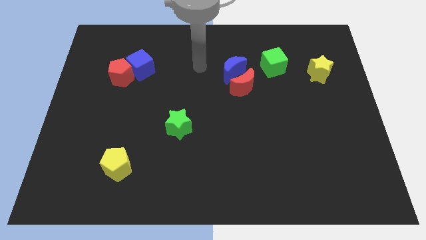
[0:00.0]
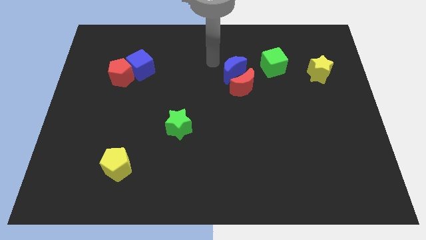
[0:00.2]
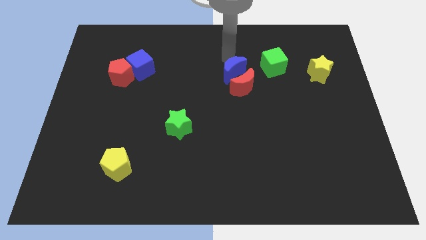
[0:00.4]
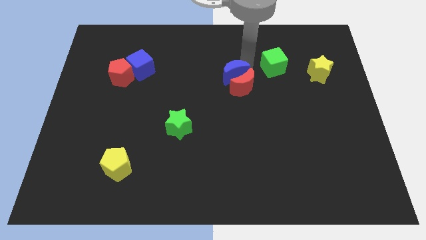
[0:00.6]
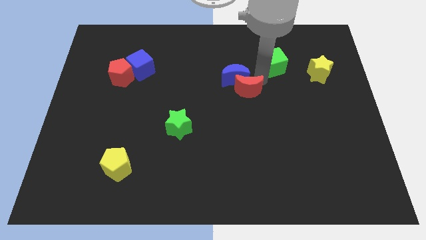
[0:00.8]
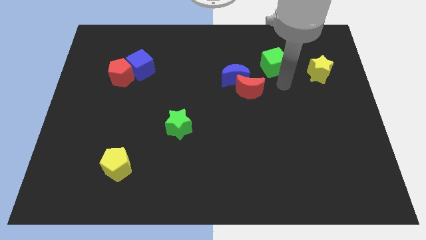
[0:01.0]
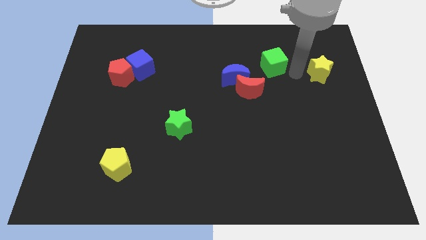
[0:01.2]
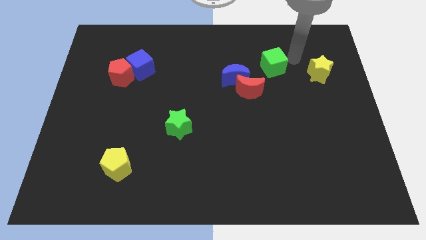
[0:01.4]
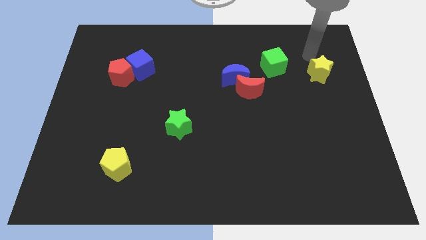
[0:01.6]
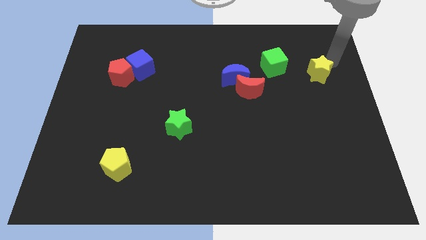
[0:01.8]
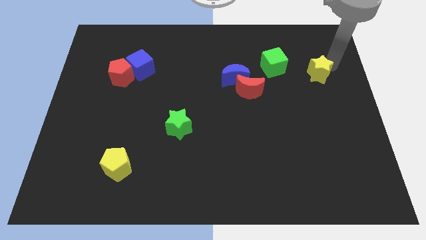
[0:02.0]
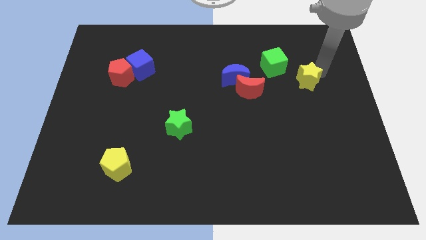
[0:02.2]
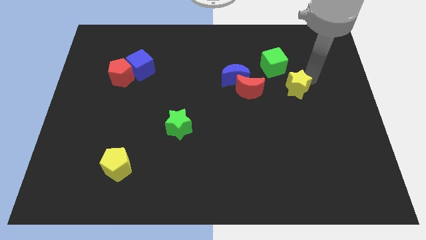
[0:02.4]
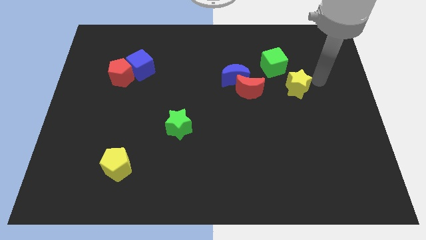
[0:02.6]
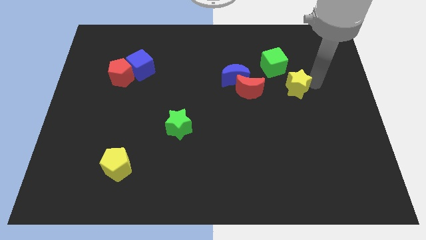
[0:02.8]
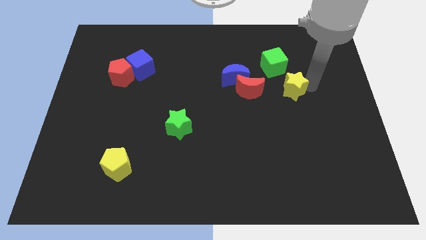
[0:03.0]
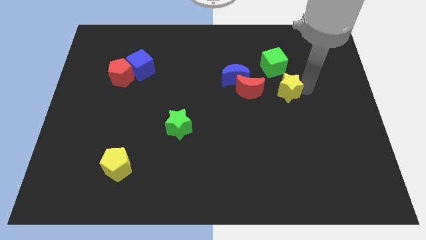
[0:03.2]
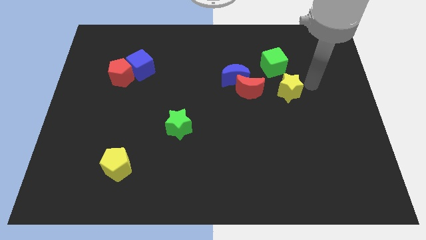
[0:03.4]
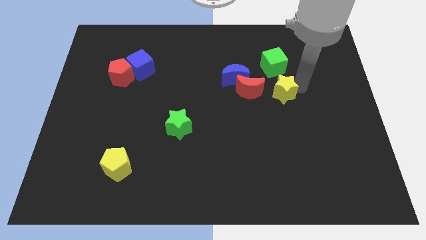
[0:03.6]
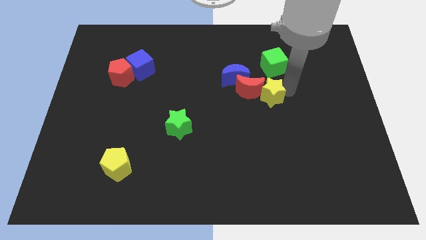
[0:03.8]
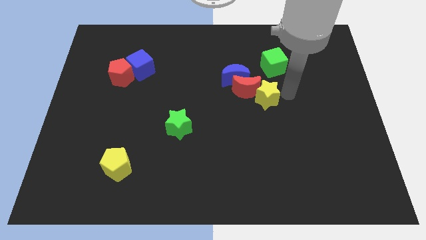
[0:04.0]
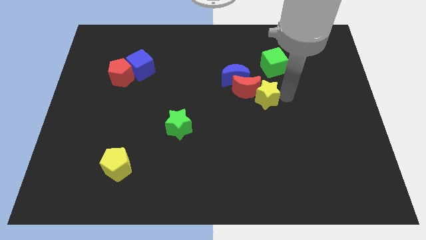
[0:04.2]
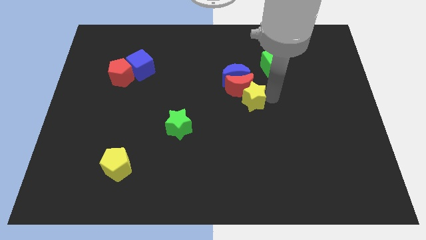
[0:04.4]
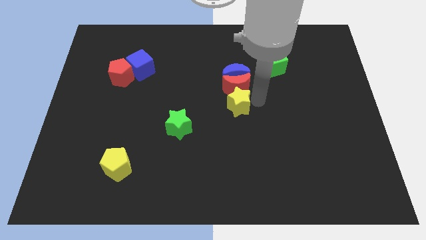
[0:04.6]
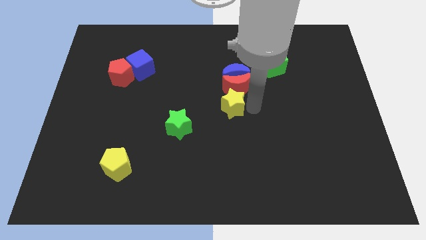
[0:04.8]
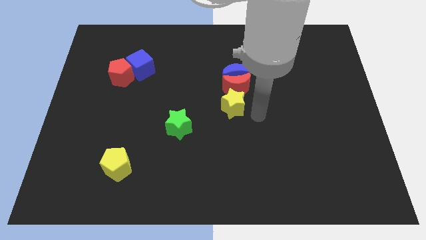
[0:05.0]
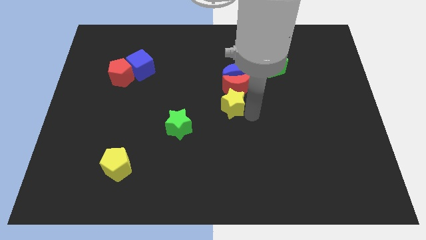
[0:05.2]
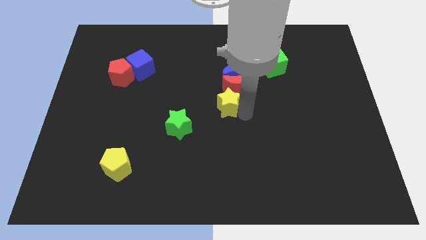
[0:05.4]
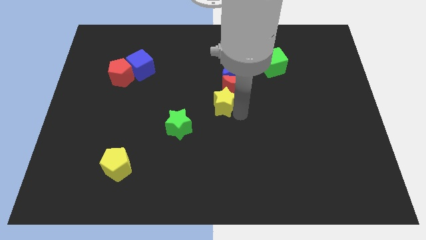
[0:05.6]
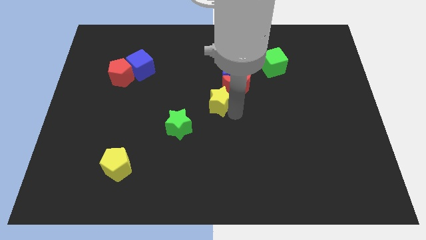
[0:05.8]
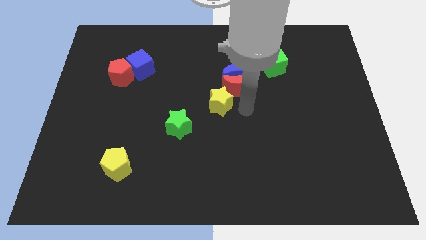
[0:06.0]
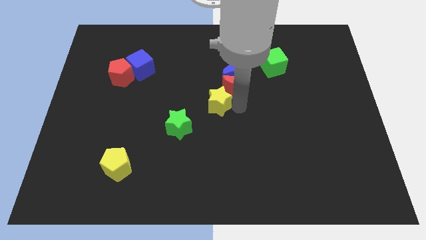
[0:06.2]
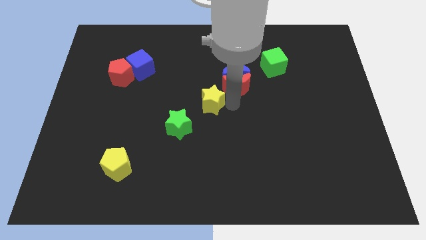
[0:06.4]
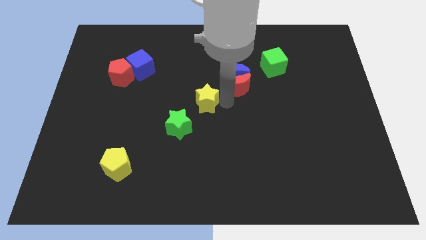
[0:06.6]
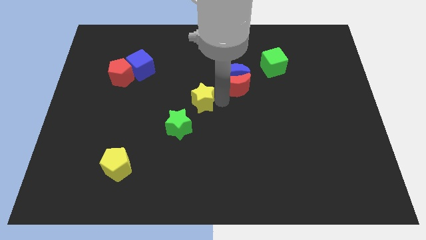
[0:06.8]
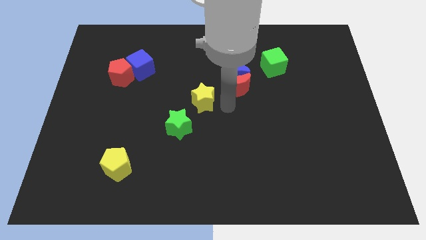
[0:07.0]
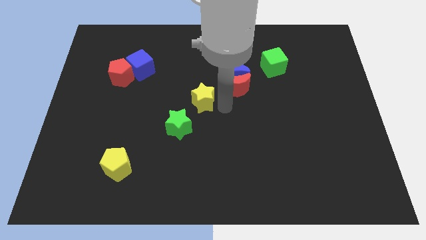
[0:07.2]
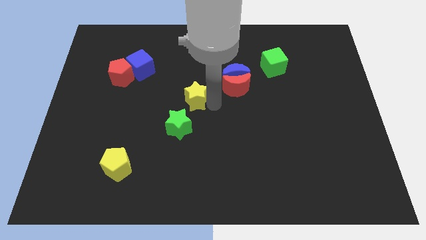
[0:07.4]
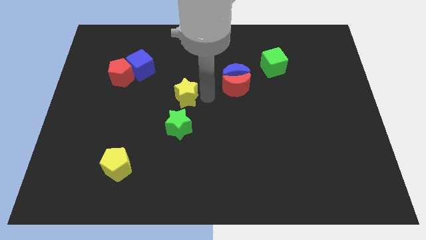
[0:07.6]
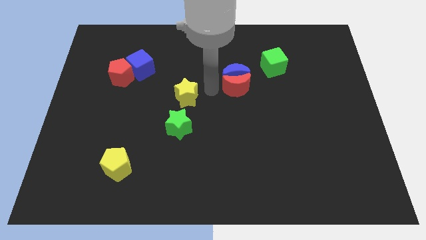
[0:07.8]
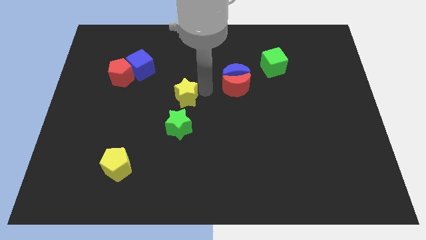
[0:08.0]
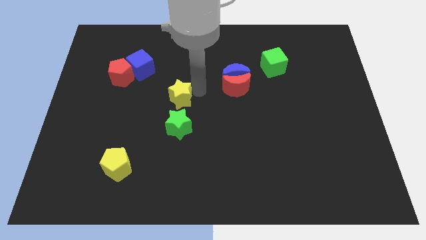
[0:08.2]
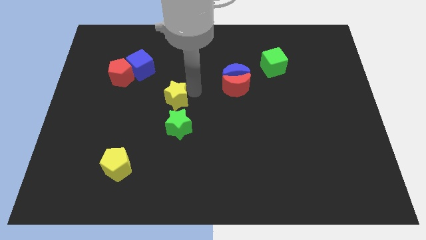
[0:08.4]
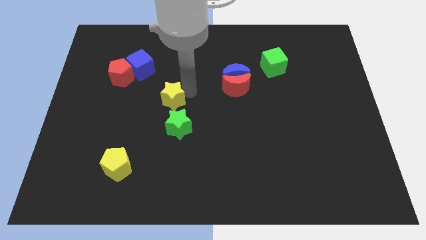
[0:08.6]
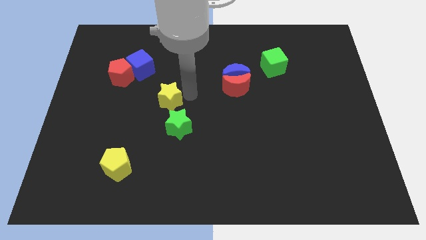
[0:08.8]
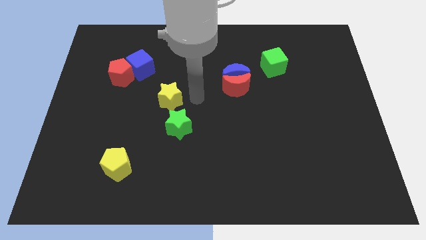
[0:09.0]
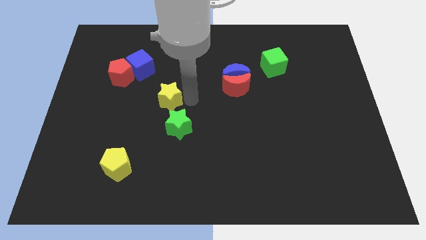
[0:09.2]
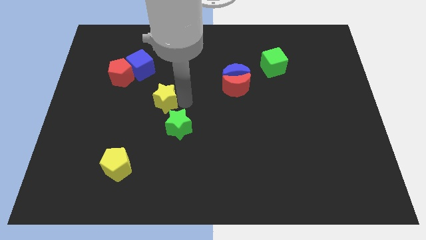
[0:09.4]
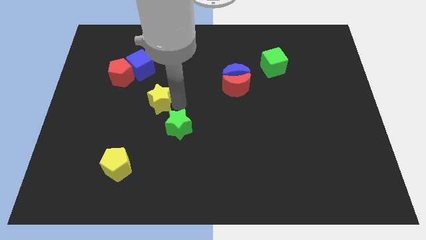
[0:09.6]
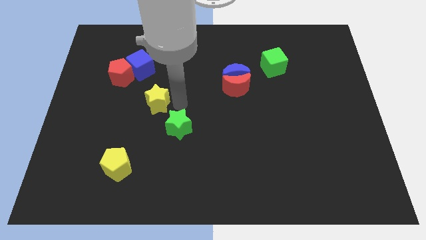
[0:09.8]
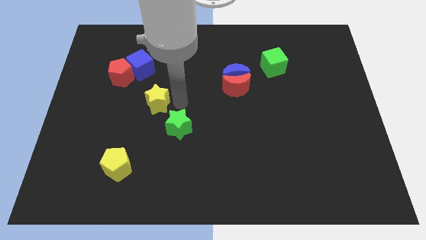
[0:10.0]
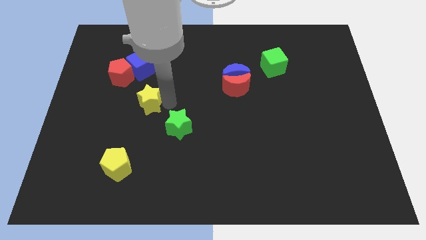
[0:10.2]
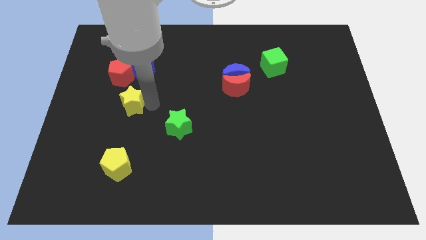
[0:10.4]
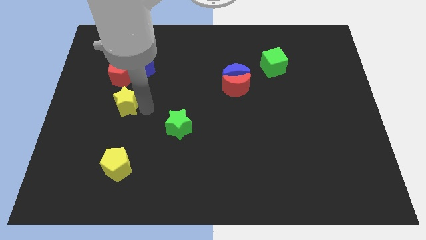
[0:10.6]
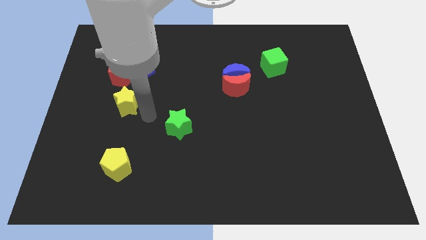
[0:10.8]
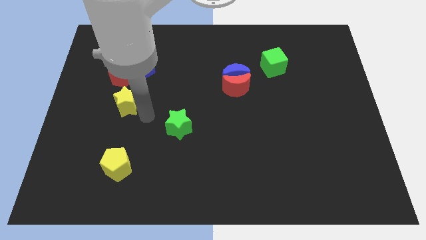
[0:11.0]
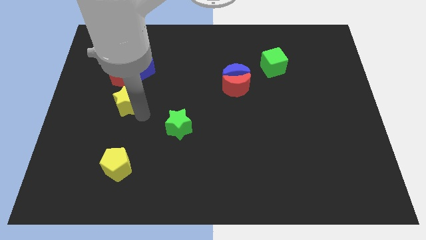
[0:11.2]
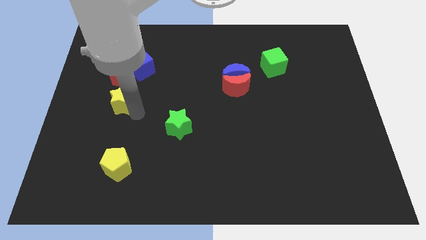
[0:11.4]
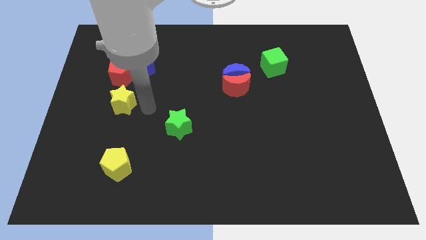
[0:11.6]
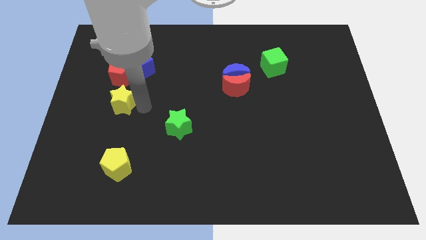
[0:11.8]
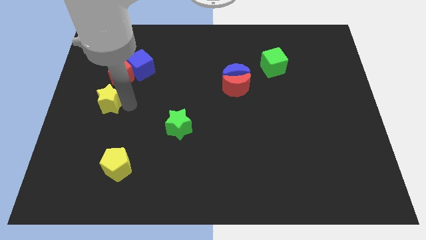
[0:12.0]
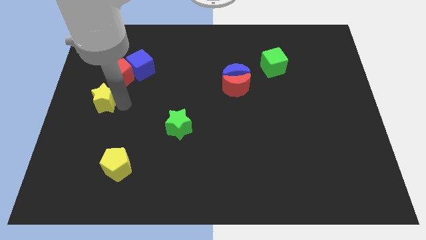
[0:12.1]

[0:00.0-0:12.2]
slide the yellow star to the center left

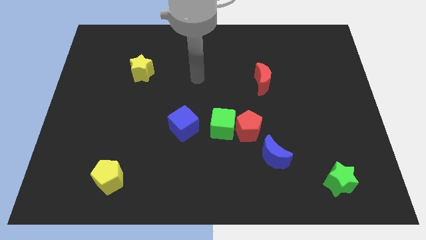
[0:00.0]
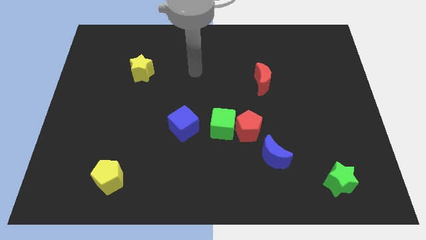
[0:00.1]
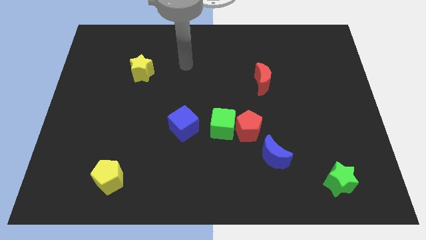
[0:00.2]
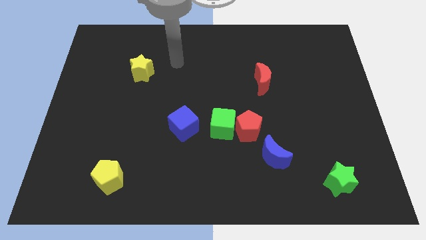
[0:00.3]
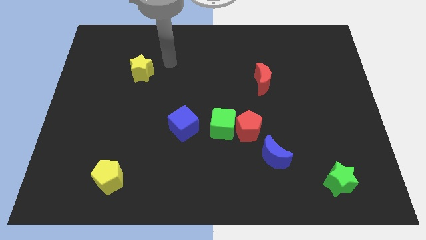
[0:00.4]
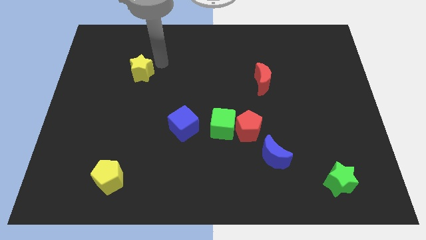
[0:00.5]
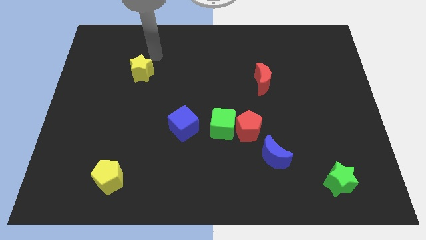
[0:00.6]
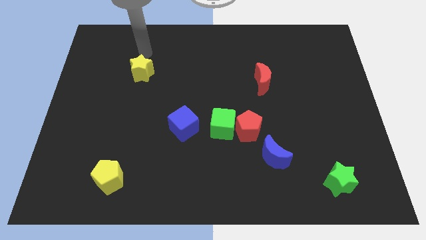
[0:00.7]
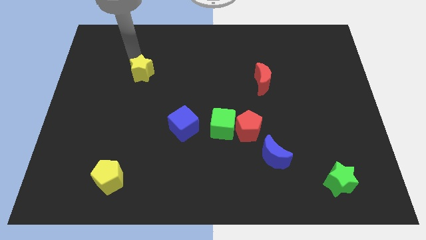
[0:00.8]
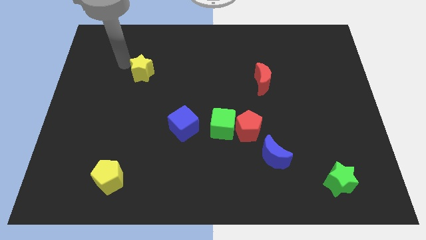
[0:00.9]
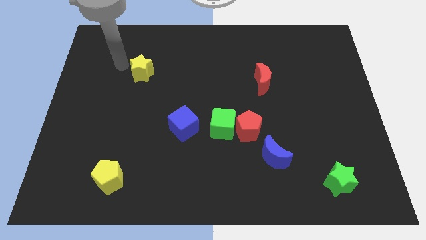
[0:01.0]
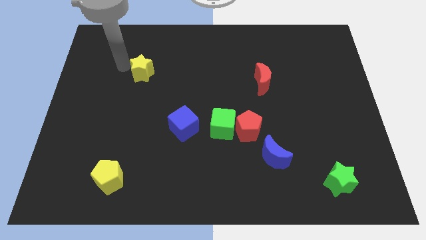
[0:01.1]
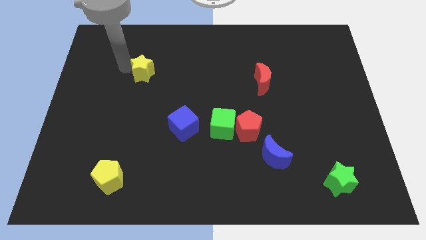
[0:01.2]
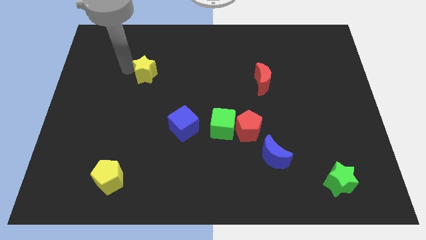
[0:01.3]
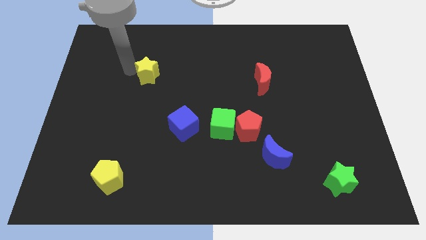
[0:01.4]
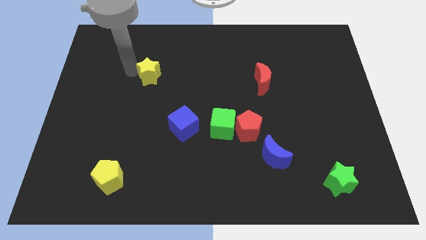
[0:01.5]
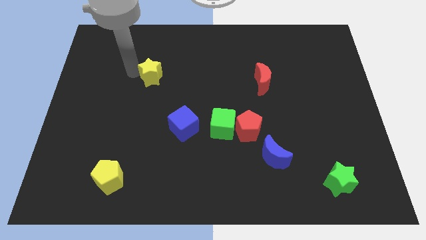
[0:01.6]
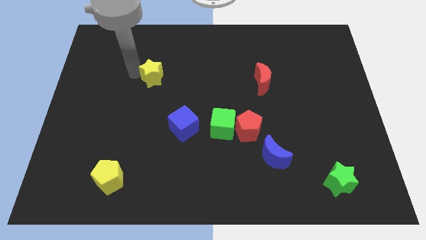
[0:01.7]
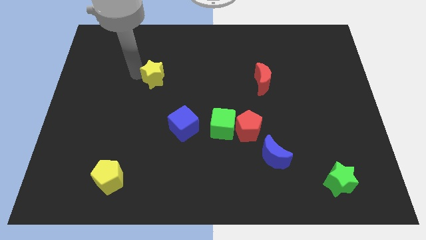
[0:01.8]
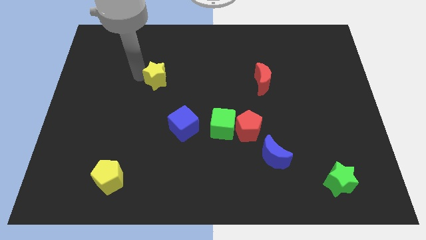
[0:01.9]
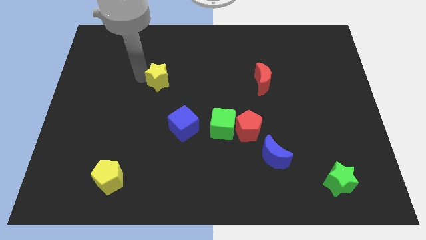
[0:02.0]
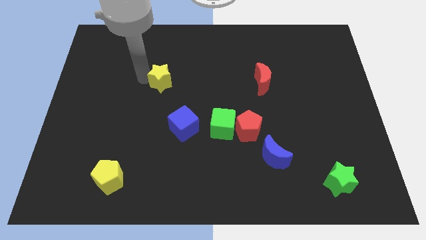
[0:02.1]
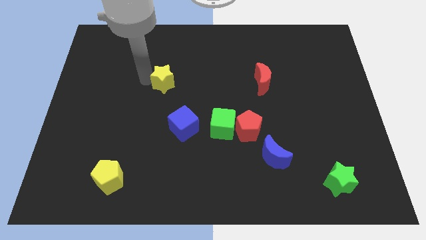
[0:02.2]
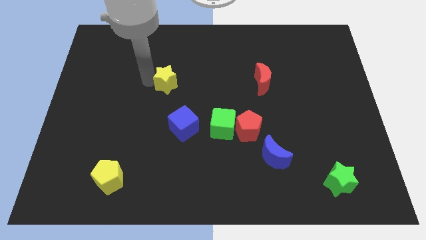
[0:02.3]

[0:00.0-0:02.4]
move the yellow star to the center of the board
